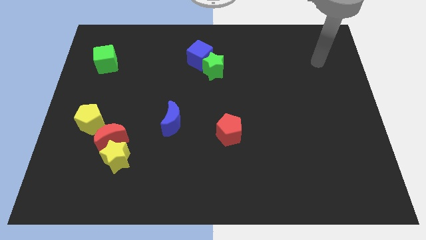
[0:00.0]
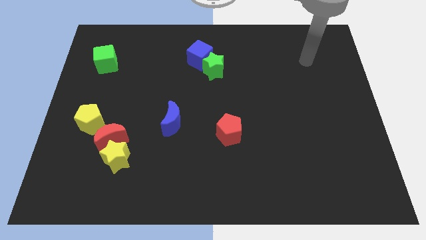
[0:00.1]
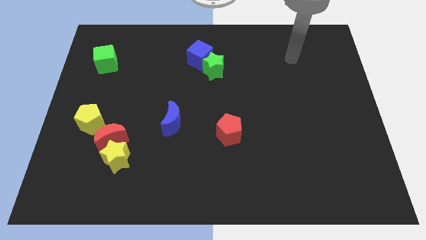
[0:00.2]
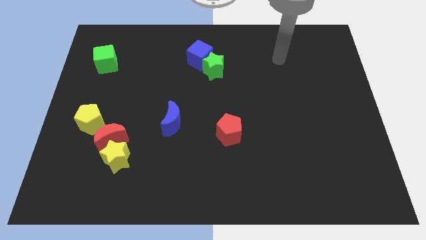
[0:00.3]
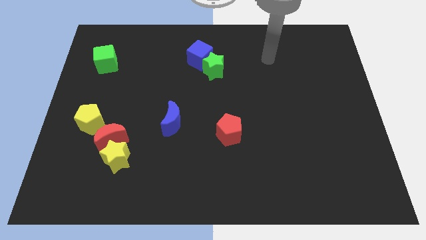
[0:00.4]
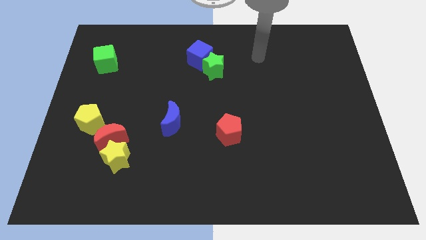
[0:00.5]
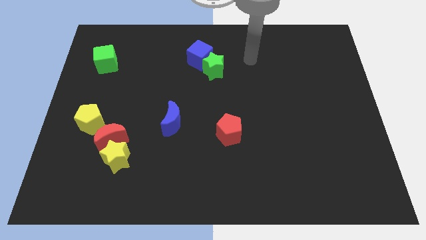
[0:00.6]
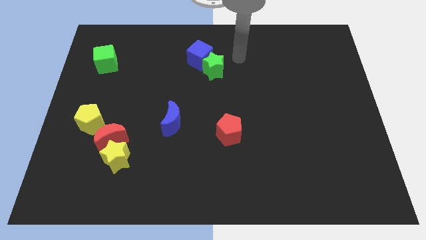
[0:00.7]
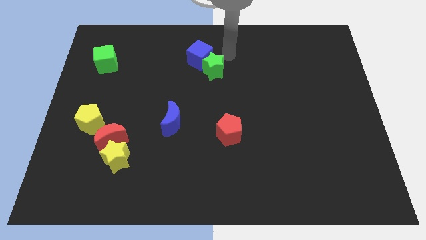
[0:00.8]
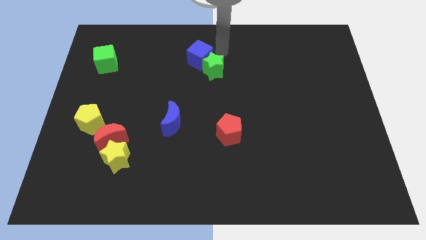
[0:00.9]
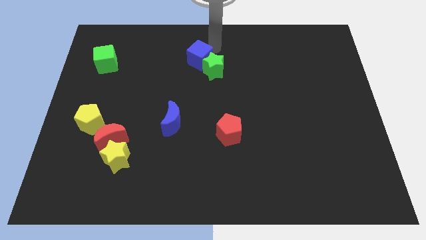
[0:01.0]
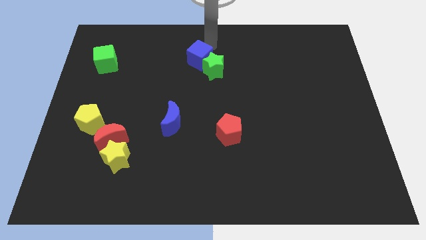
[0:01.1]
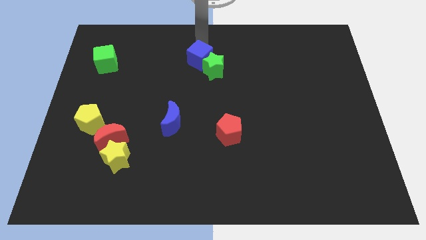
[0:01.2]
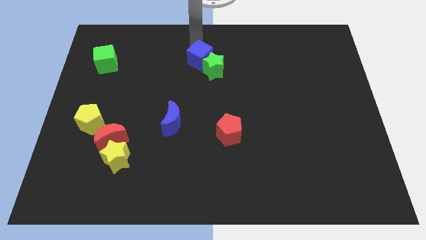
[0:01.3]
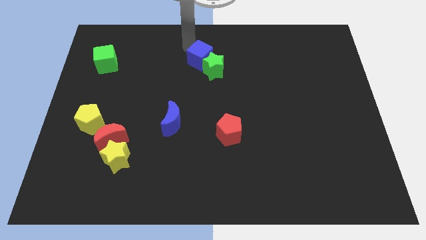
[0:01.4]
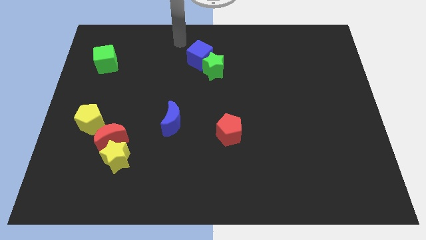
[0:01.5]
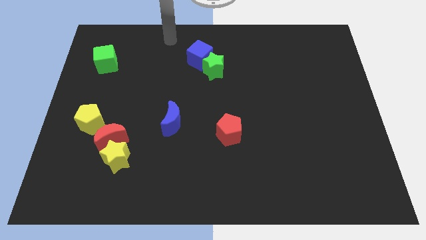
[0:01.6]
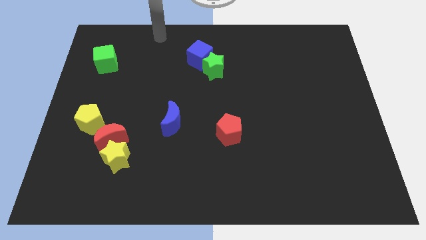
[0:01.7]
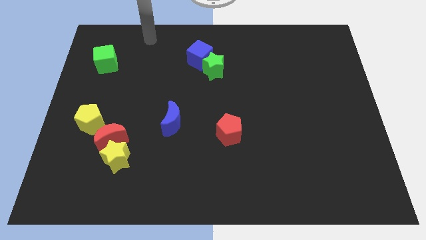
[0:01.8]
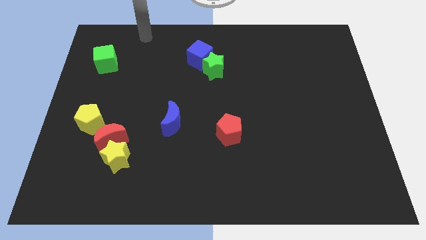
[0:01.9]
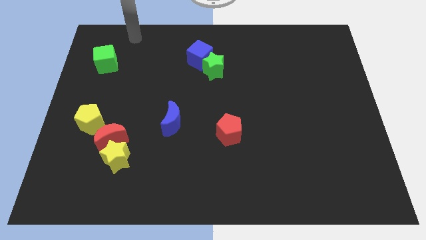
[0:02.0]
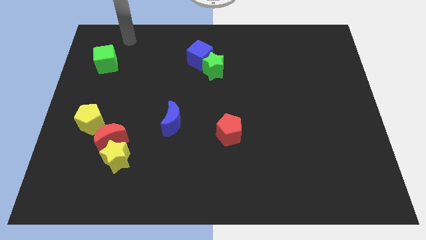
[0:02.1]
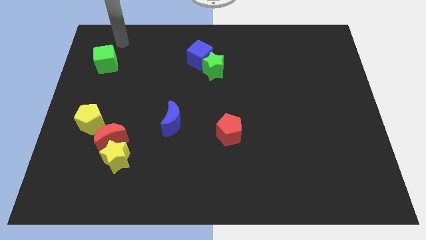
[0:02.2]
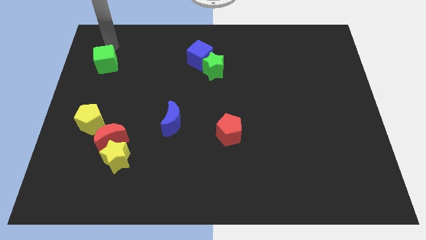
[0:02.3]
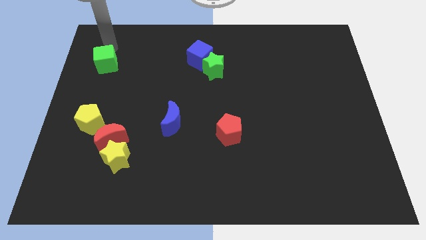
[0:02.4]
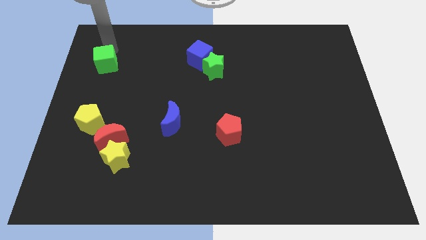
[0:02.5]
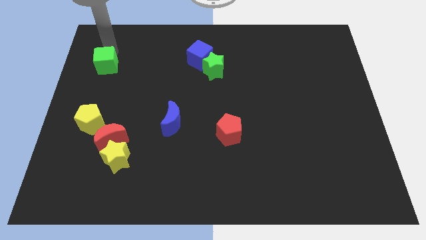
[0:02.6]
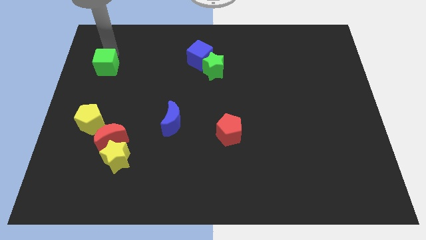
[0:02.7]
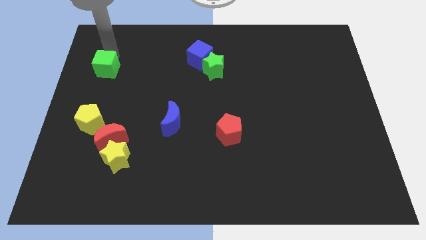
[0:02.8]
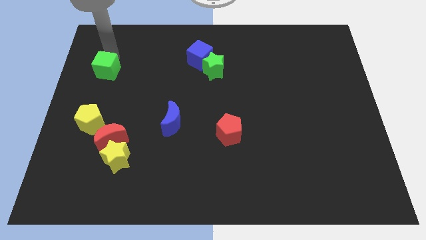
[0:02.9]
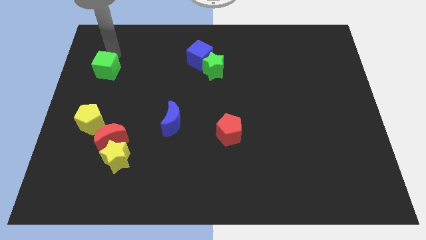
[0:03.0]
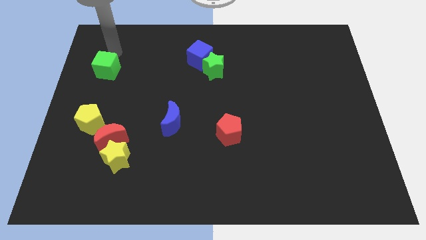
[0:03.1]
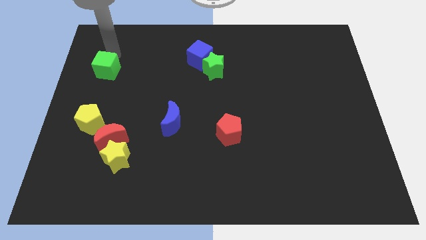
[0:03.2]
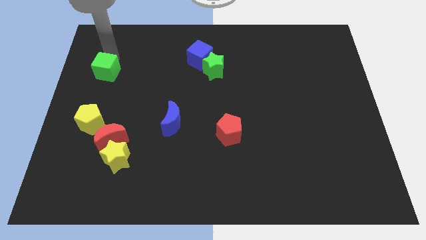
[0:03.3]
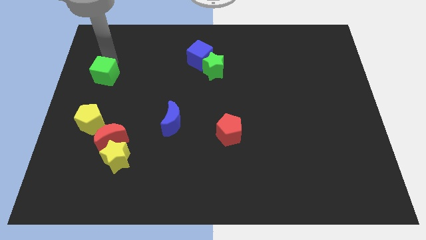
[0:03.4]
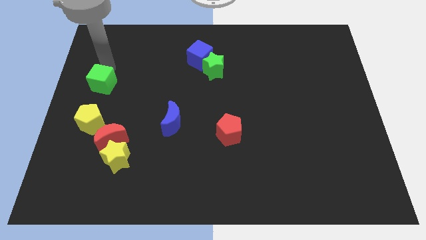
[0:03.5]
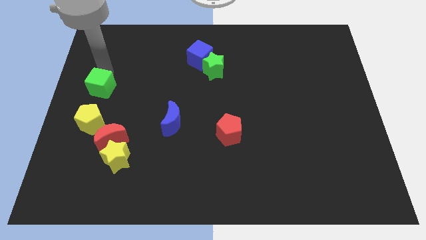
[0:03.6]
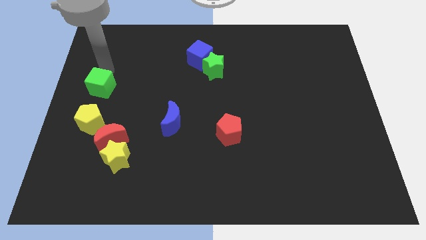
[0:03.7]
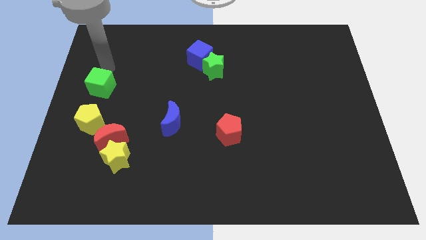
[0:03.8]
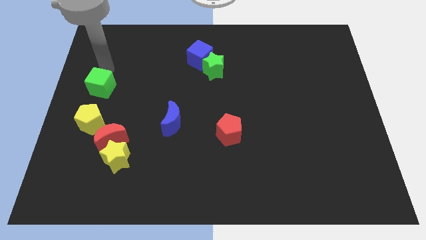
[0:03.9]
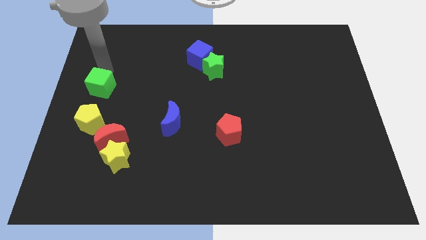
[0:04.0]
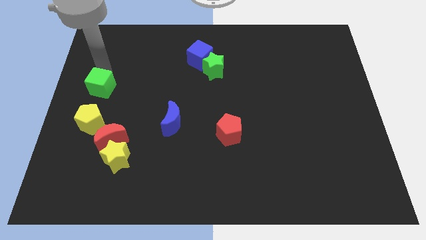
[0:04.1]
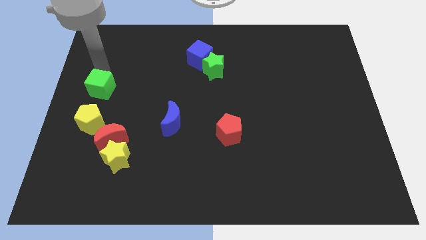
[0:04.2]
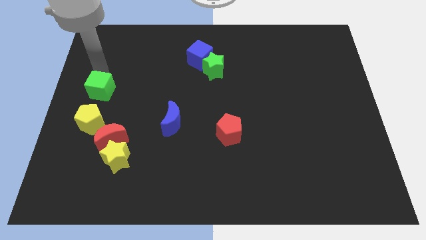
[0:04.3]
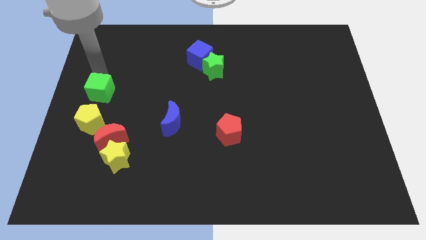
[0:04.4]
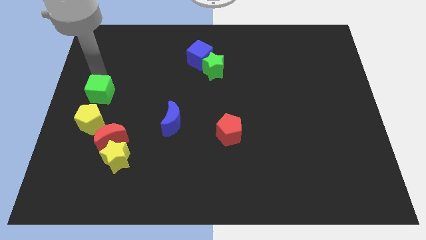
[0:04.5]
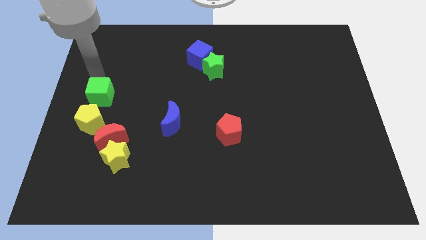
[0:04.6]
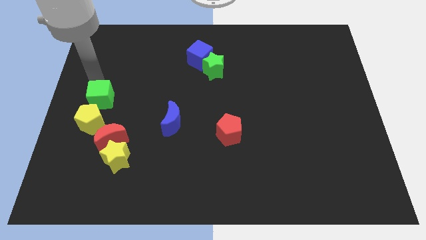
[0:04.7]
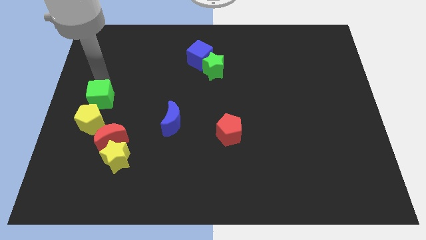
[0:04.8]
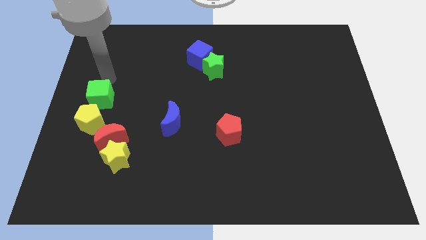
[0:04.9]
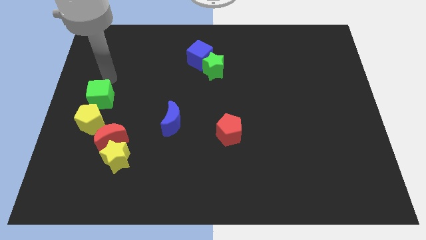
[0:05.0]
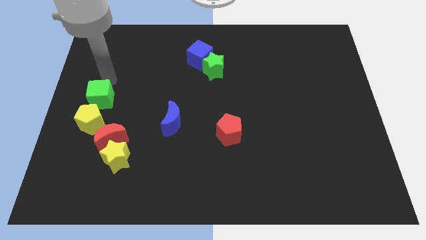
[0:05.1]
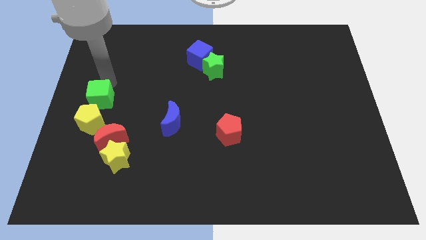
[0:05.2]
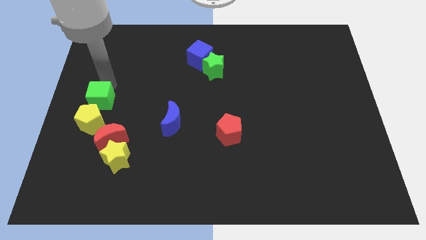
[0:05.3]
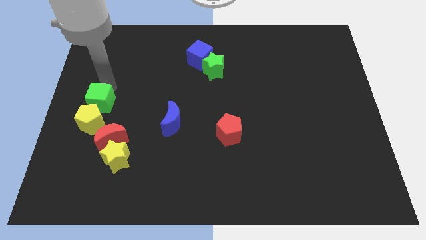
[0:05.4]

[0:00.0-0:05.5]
move the green cube next to the yellow pentagon

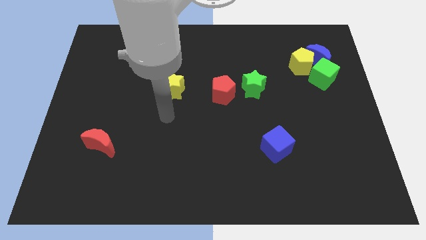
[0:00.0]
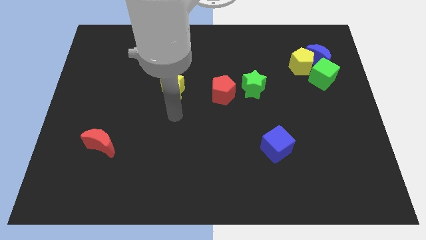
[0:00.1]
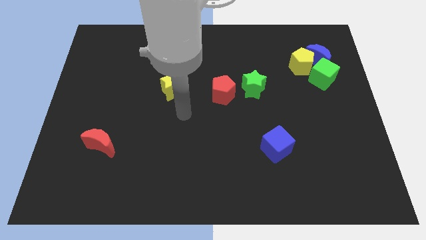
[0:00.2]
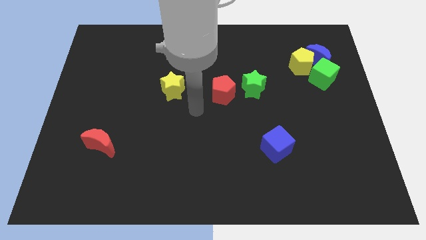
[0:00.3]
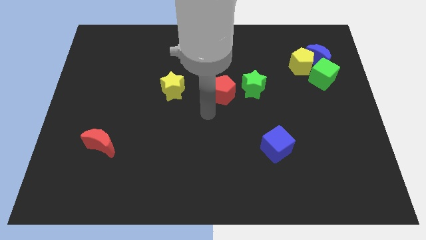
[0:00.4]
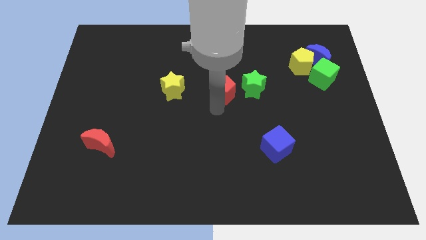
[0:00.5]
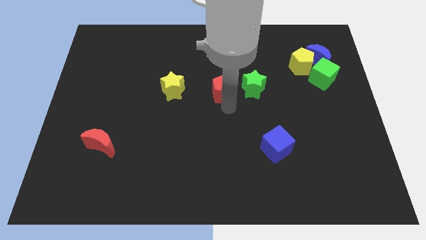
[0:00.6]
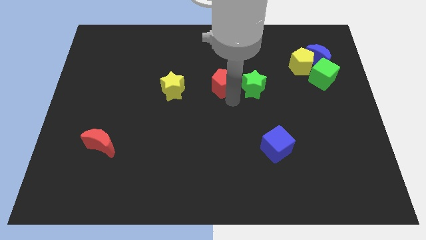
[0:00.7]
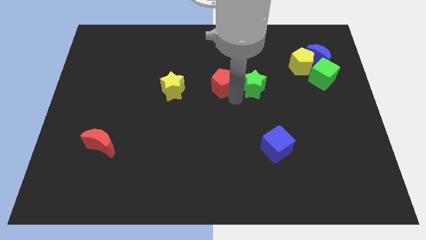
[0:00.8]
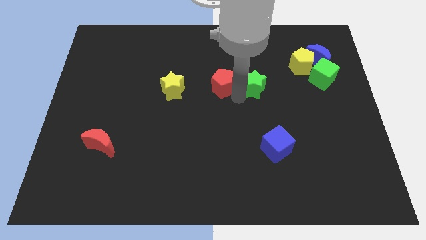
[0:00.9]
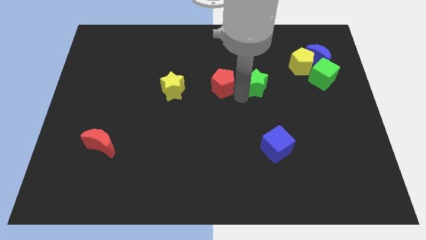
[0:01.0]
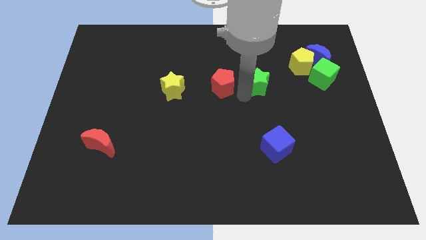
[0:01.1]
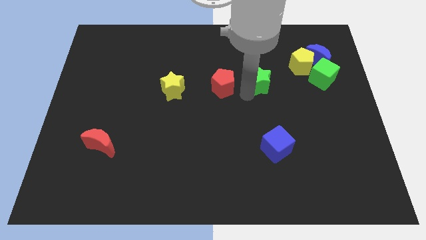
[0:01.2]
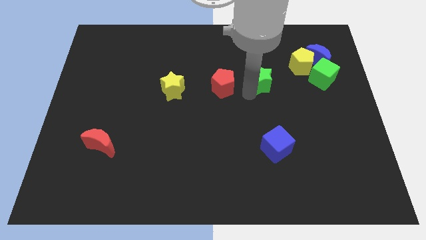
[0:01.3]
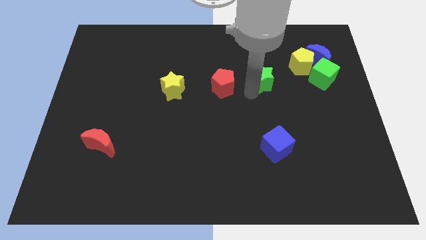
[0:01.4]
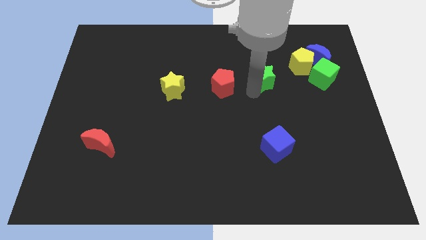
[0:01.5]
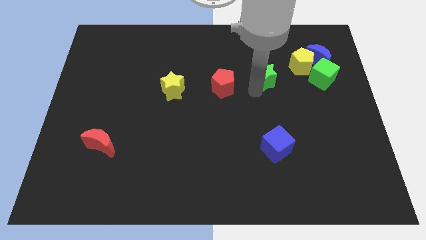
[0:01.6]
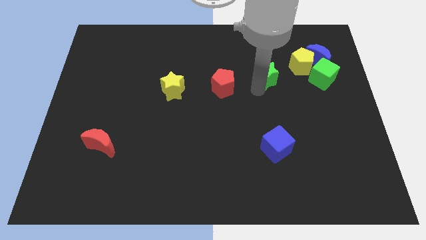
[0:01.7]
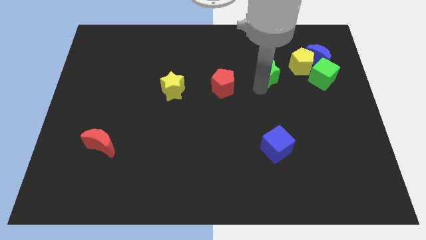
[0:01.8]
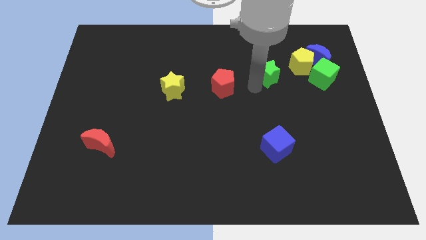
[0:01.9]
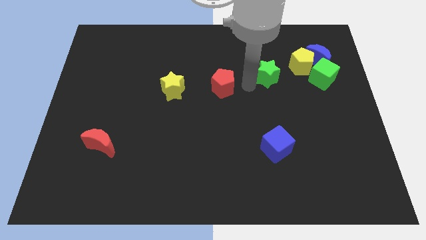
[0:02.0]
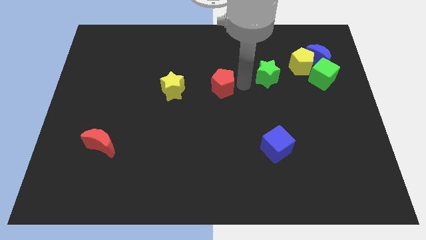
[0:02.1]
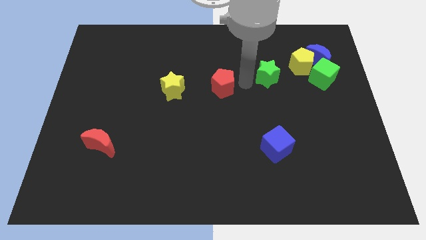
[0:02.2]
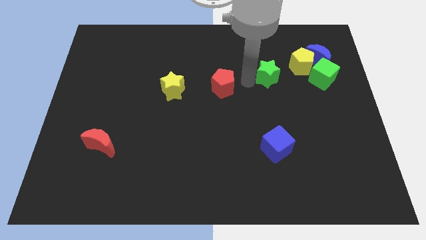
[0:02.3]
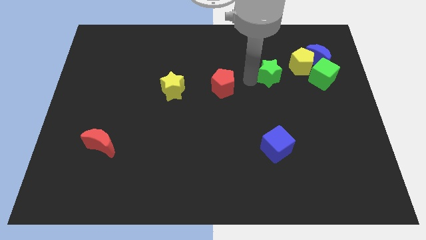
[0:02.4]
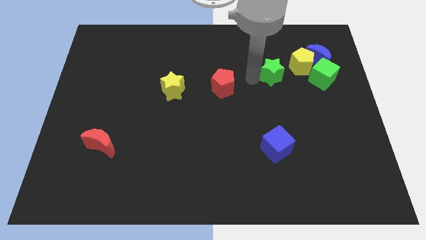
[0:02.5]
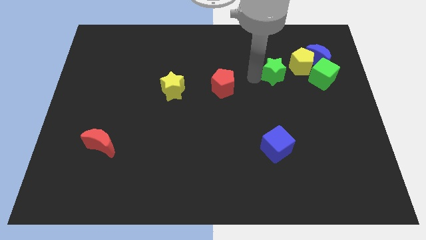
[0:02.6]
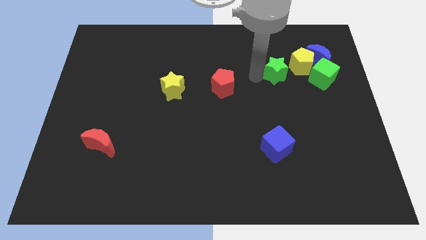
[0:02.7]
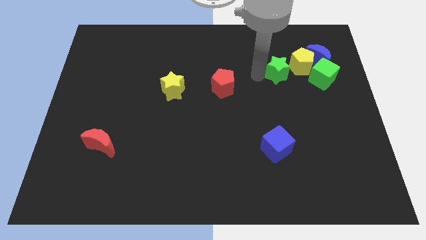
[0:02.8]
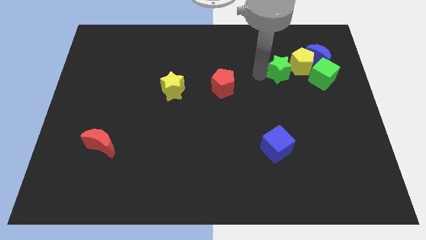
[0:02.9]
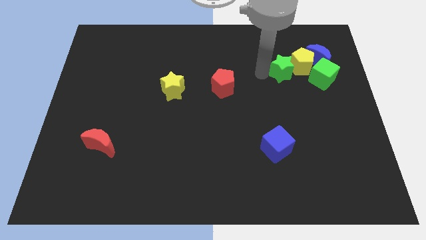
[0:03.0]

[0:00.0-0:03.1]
slide the green star next to the yellow pentagon
